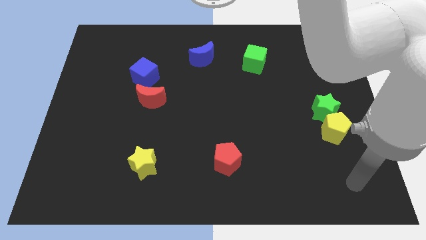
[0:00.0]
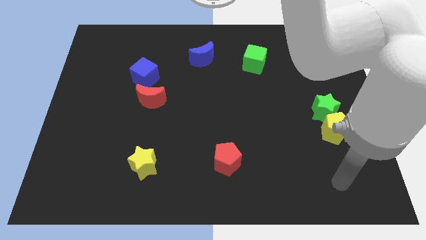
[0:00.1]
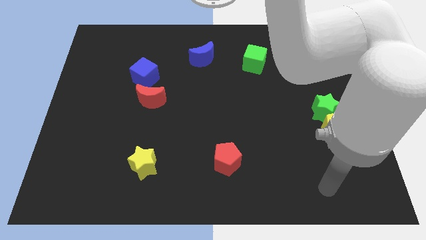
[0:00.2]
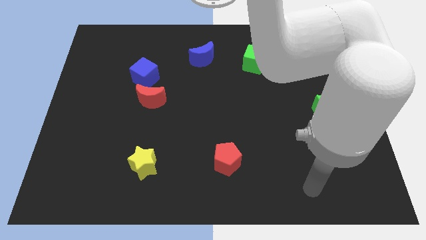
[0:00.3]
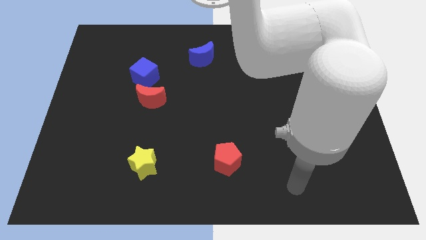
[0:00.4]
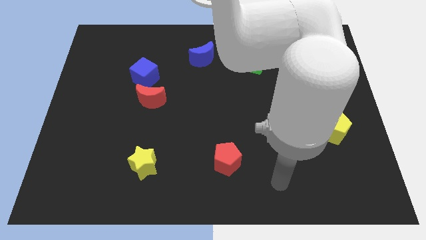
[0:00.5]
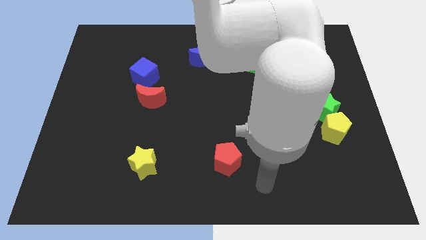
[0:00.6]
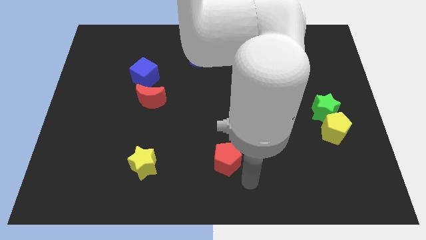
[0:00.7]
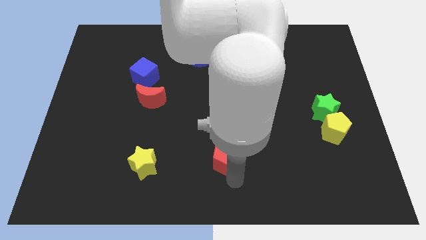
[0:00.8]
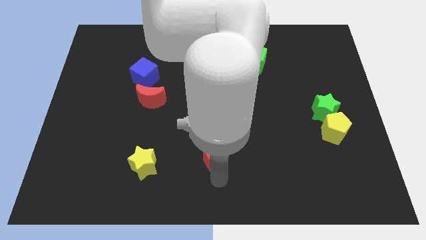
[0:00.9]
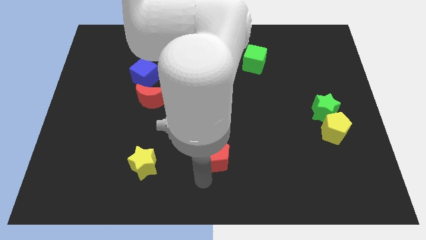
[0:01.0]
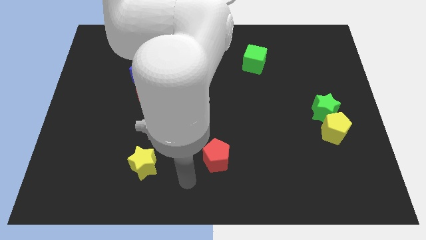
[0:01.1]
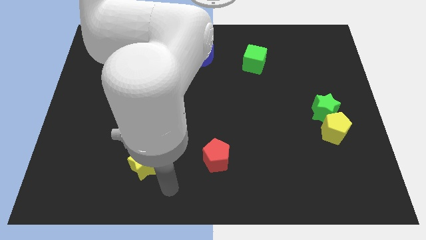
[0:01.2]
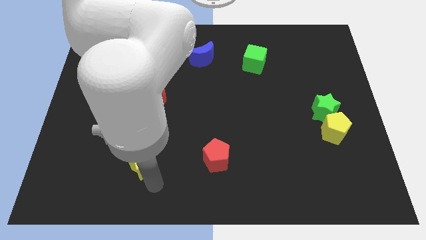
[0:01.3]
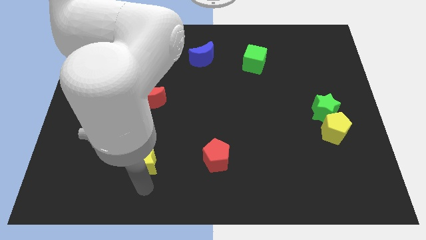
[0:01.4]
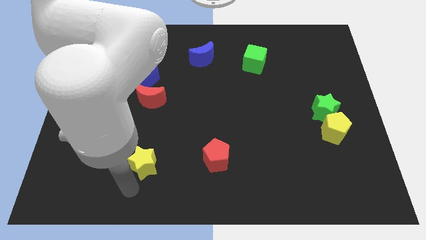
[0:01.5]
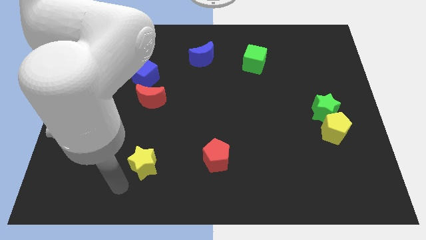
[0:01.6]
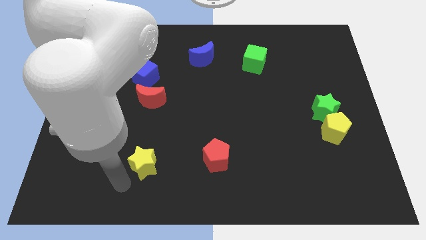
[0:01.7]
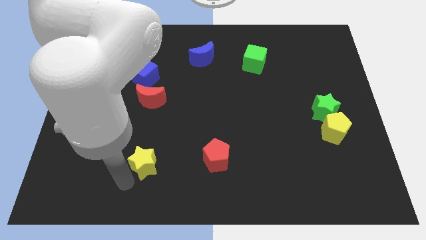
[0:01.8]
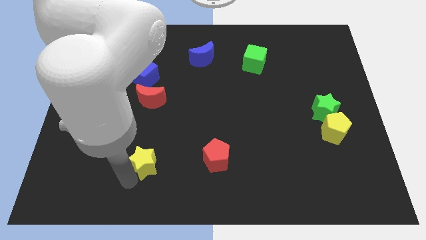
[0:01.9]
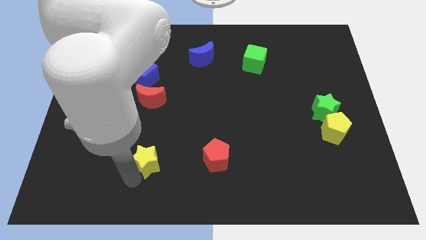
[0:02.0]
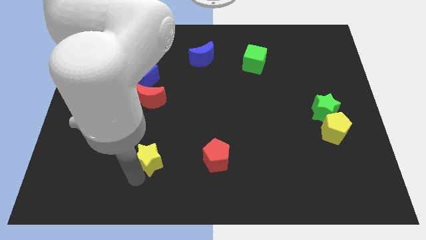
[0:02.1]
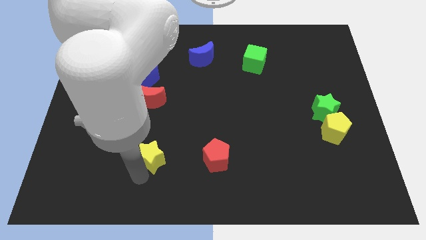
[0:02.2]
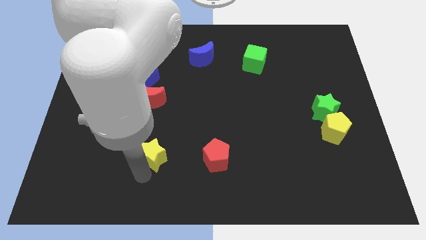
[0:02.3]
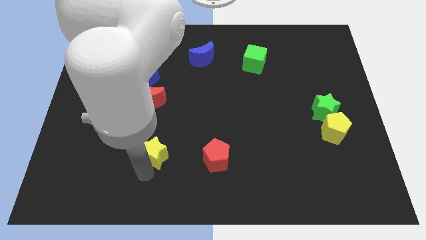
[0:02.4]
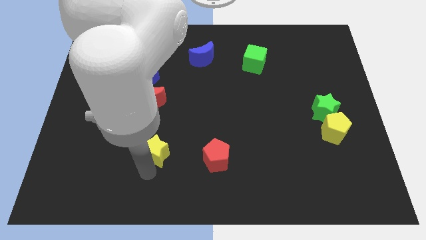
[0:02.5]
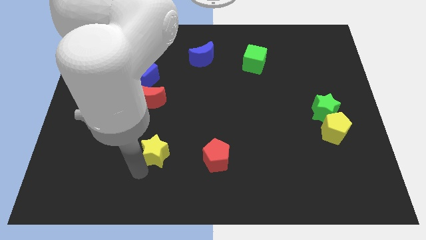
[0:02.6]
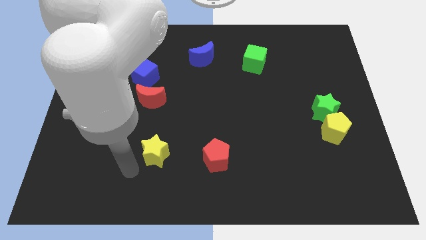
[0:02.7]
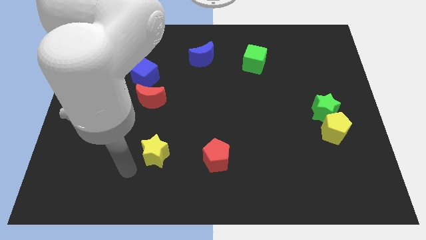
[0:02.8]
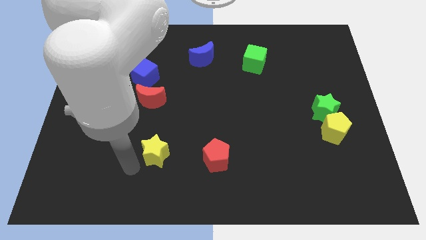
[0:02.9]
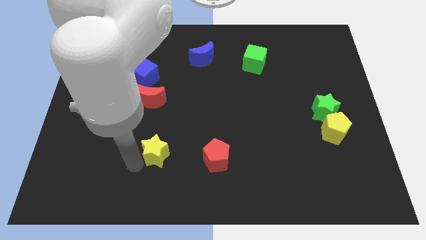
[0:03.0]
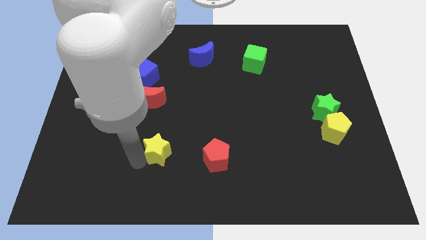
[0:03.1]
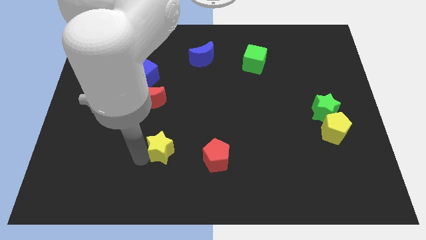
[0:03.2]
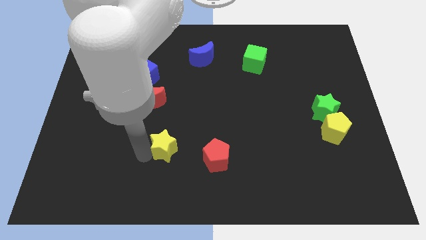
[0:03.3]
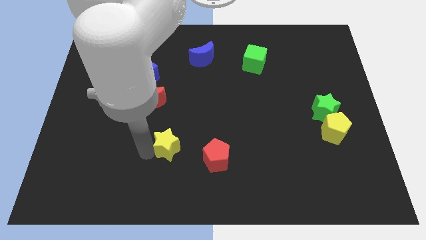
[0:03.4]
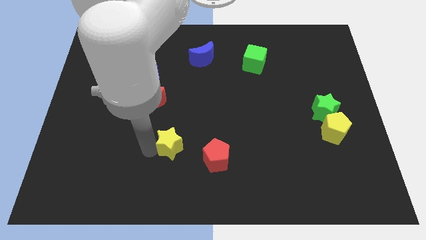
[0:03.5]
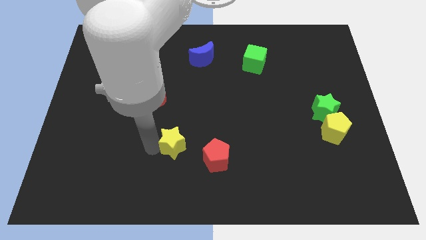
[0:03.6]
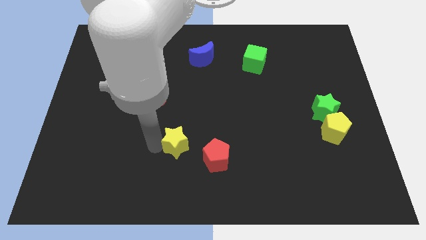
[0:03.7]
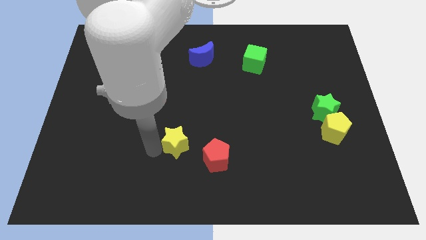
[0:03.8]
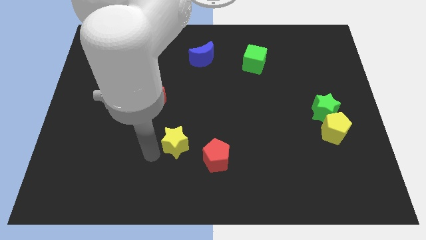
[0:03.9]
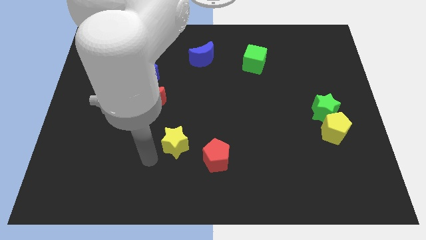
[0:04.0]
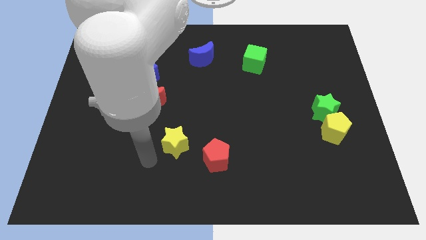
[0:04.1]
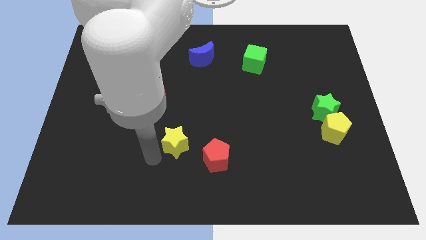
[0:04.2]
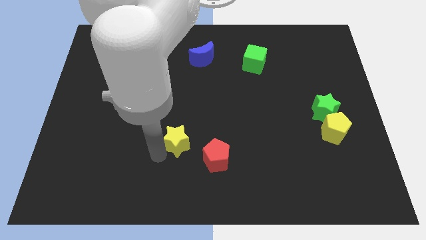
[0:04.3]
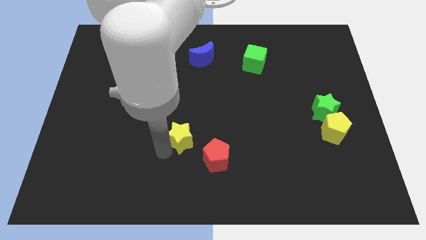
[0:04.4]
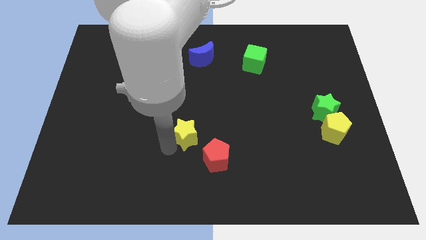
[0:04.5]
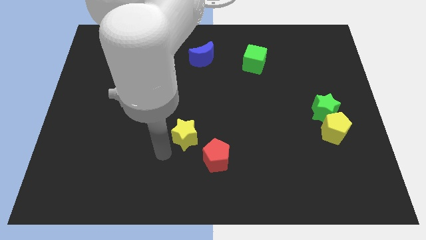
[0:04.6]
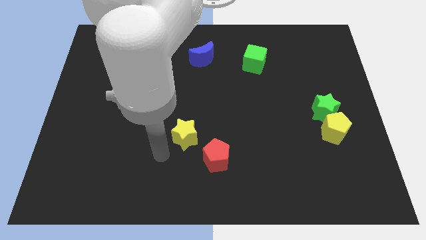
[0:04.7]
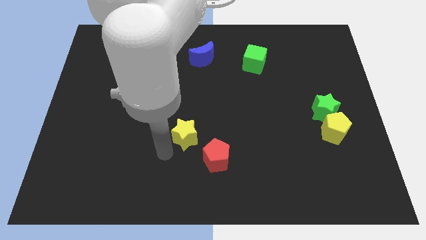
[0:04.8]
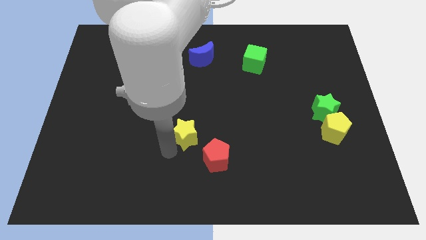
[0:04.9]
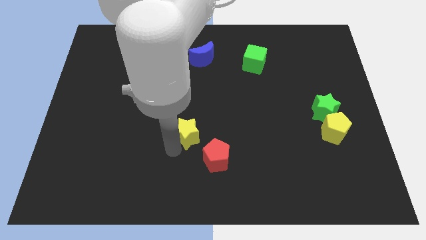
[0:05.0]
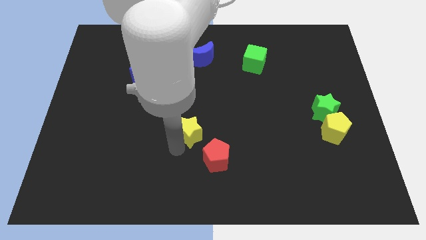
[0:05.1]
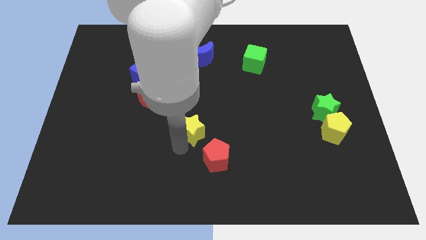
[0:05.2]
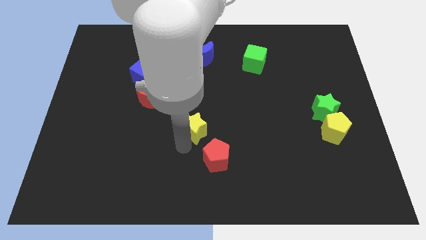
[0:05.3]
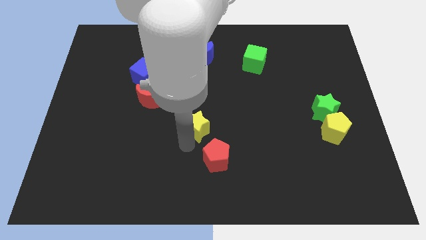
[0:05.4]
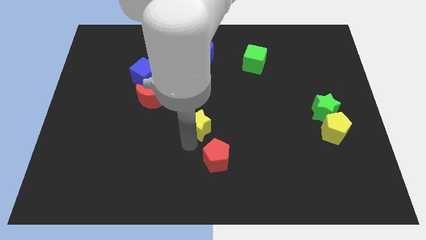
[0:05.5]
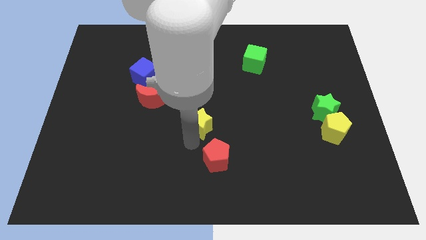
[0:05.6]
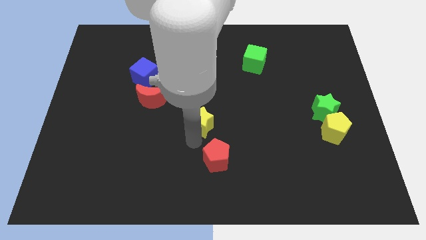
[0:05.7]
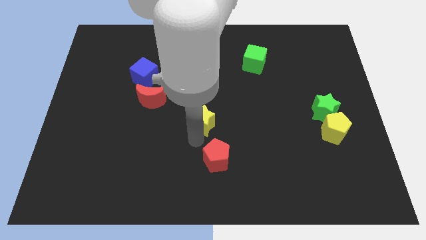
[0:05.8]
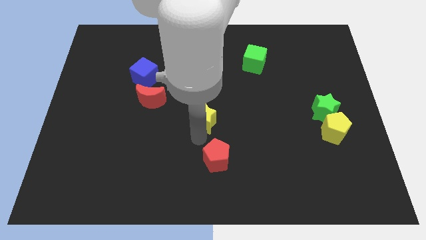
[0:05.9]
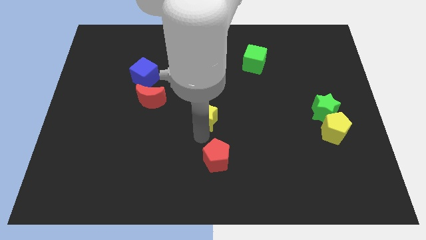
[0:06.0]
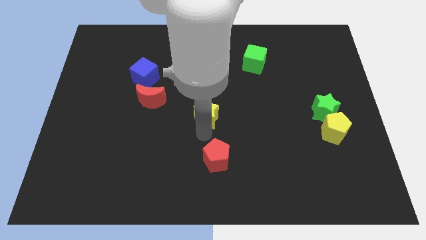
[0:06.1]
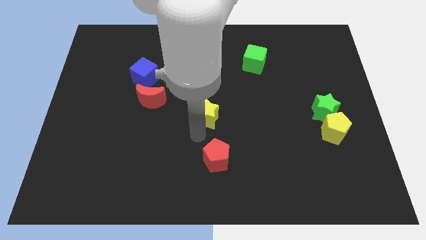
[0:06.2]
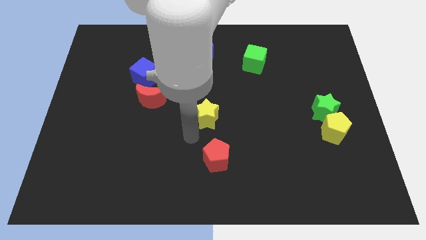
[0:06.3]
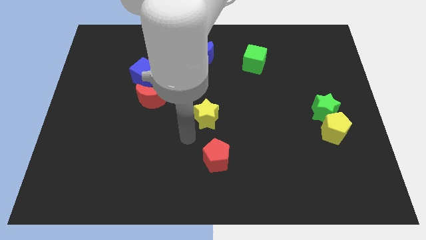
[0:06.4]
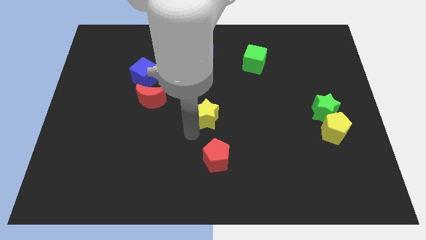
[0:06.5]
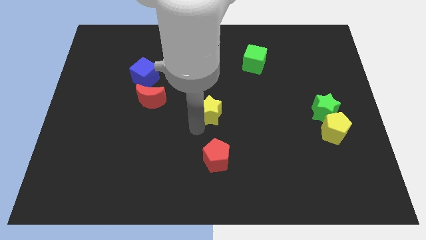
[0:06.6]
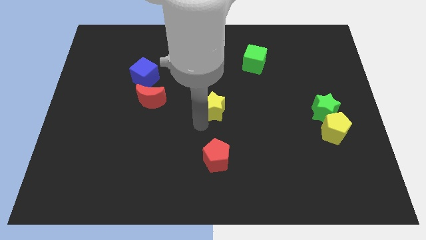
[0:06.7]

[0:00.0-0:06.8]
push the yellow star upwards and to the right

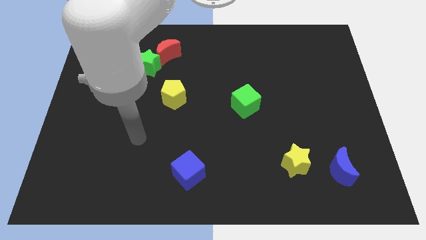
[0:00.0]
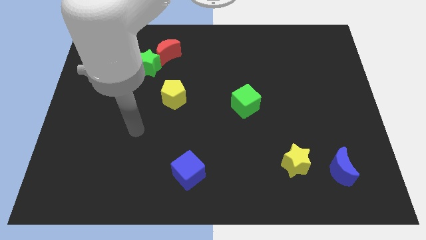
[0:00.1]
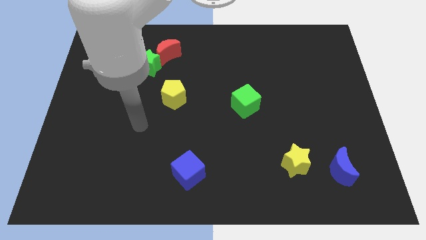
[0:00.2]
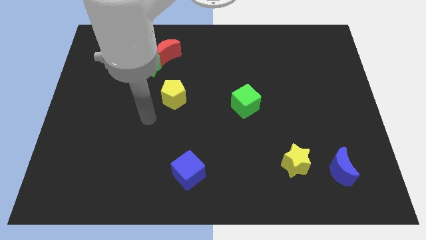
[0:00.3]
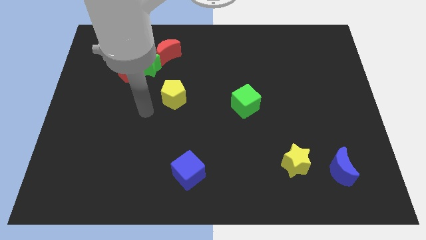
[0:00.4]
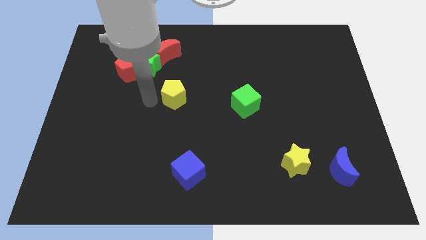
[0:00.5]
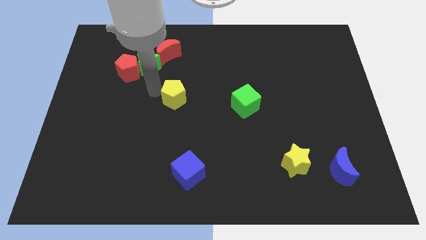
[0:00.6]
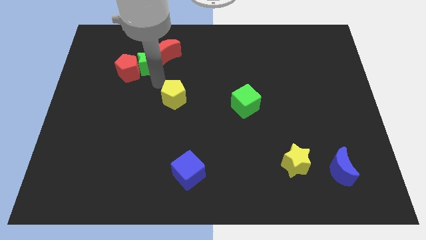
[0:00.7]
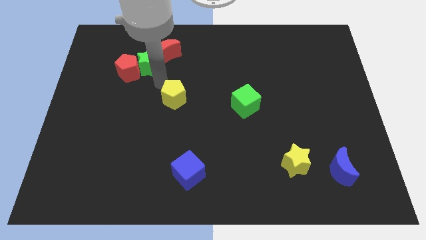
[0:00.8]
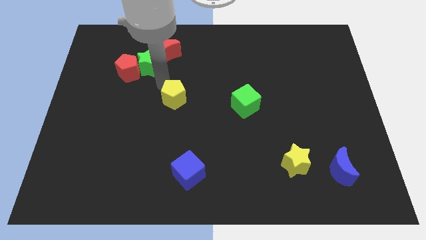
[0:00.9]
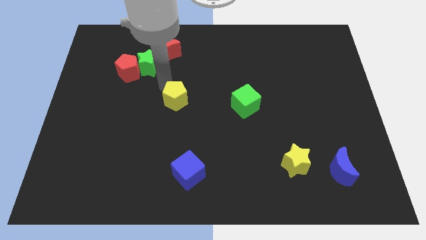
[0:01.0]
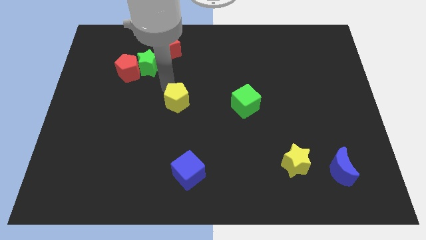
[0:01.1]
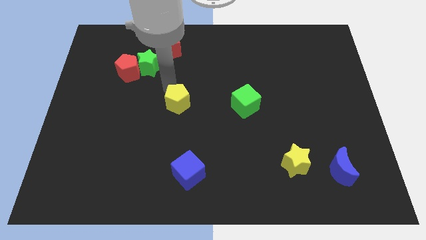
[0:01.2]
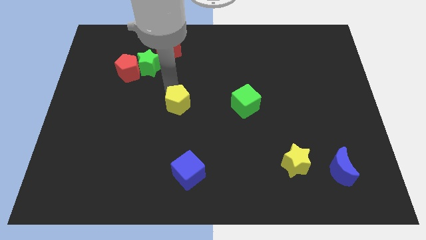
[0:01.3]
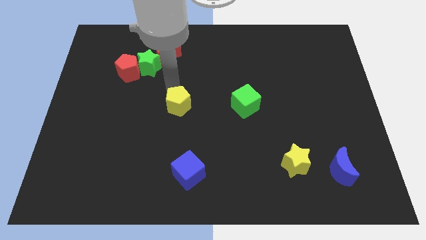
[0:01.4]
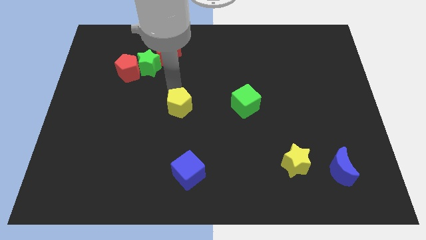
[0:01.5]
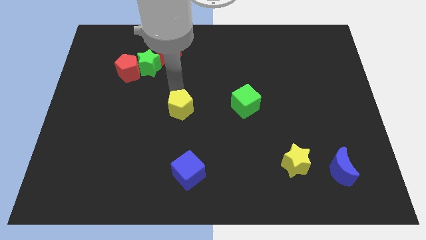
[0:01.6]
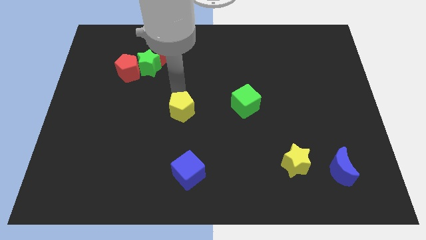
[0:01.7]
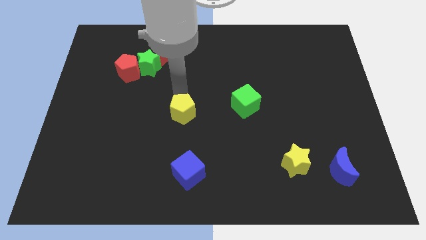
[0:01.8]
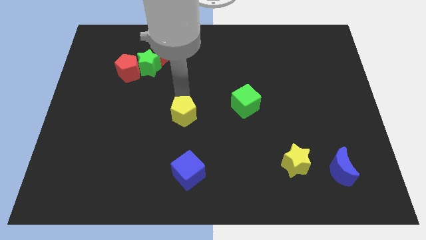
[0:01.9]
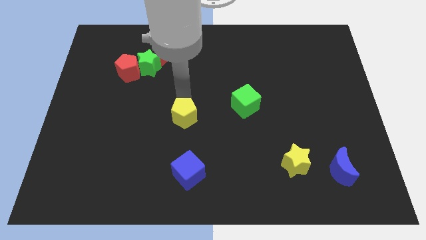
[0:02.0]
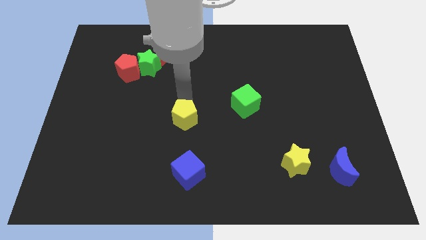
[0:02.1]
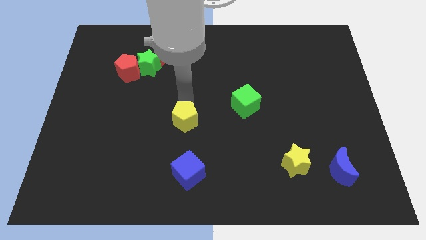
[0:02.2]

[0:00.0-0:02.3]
slightly push the yellow pentagon downwards and right diagonally
